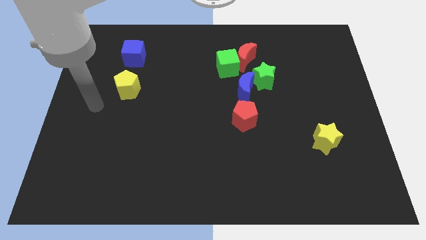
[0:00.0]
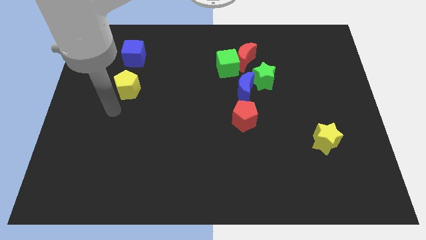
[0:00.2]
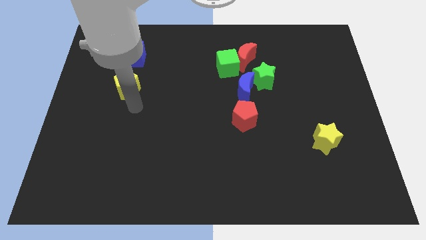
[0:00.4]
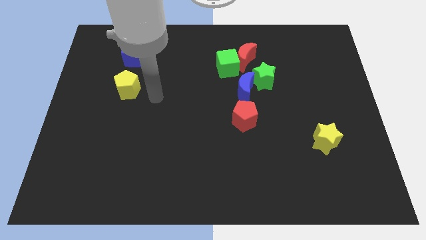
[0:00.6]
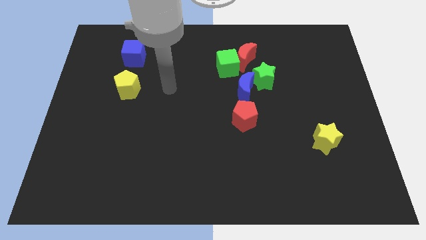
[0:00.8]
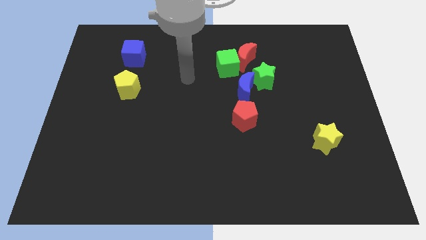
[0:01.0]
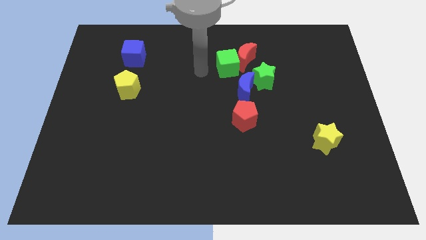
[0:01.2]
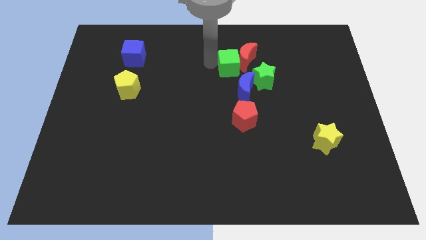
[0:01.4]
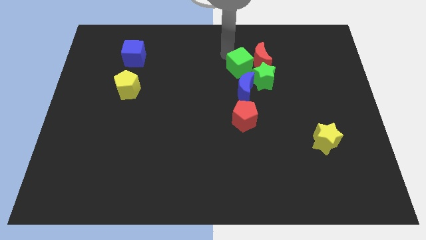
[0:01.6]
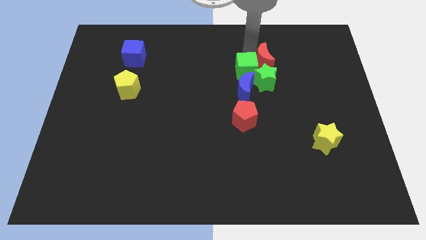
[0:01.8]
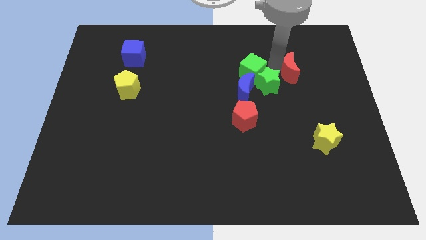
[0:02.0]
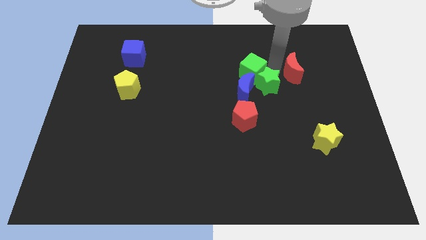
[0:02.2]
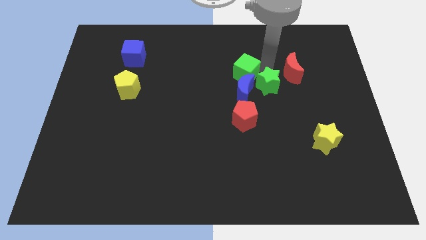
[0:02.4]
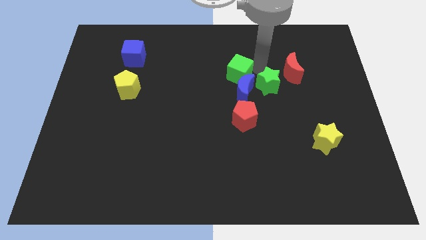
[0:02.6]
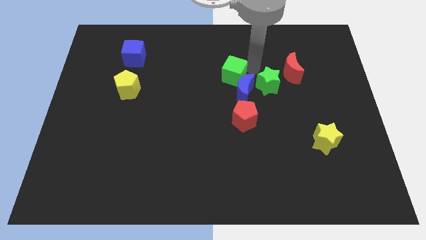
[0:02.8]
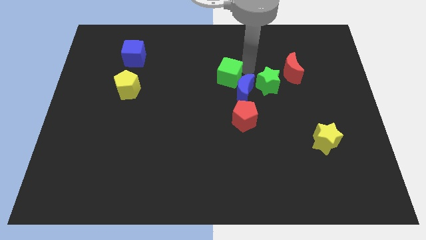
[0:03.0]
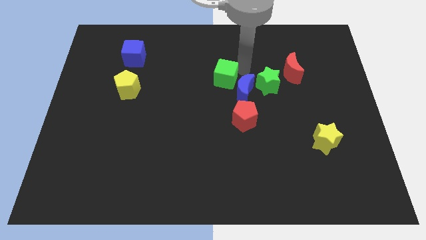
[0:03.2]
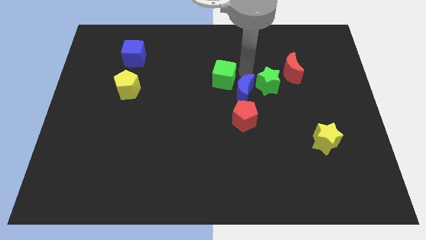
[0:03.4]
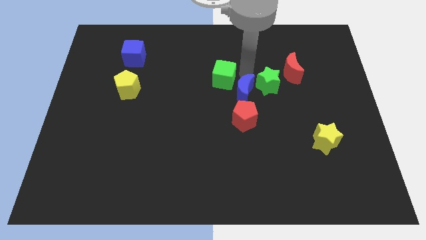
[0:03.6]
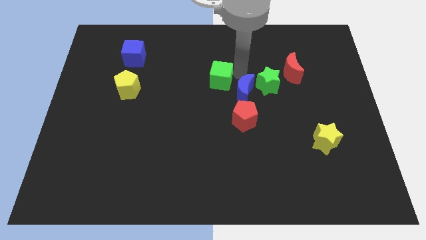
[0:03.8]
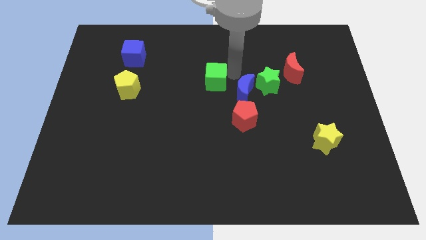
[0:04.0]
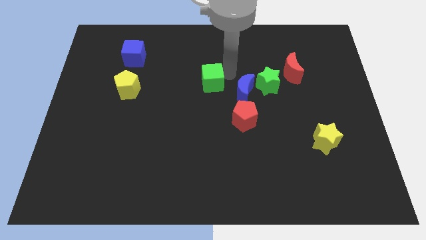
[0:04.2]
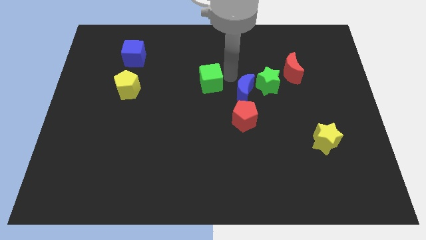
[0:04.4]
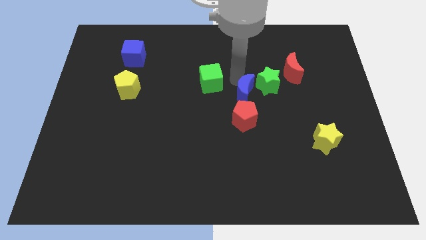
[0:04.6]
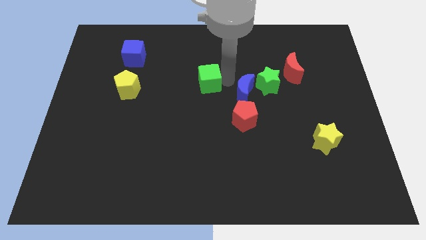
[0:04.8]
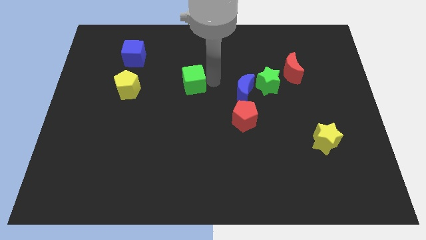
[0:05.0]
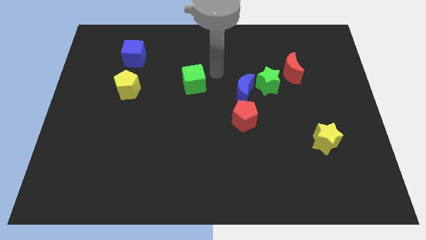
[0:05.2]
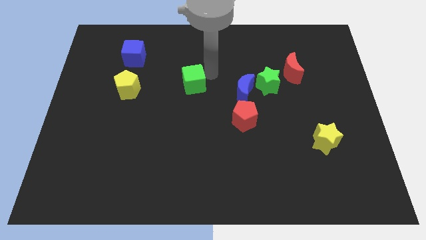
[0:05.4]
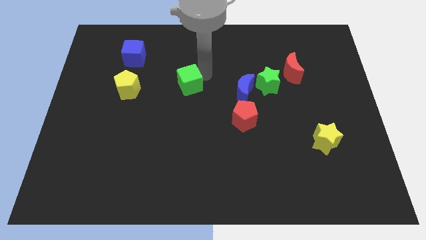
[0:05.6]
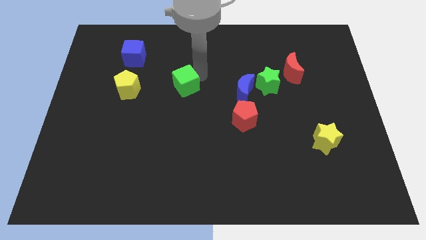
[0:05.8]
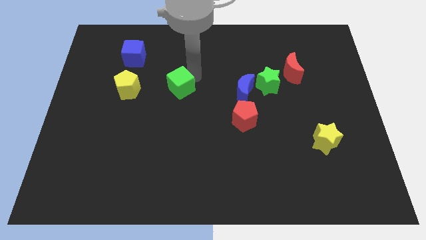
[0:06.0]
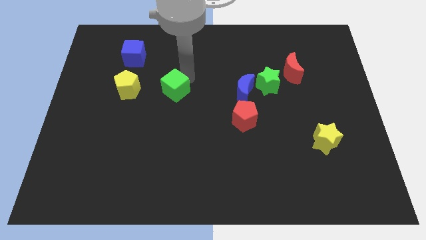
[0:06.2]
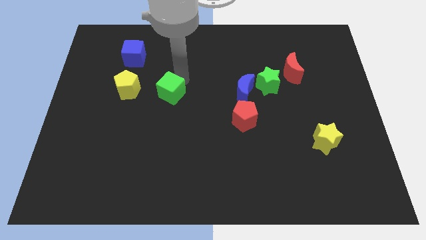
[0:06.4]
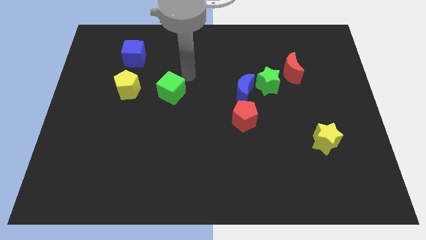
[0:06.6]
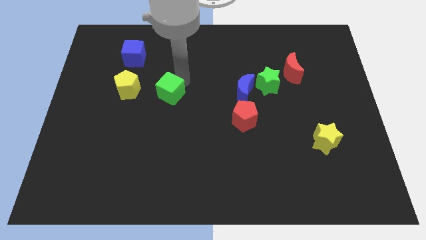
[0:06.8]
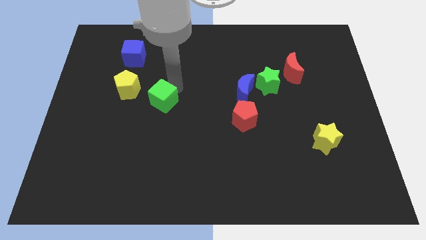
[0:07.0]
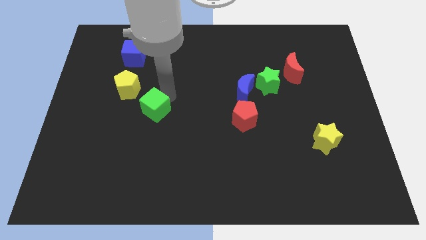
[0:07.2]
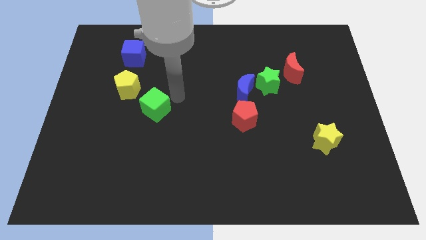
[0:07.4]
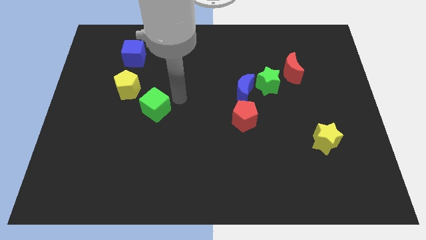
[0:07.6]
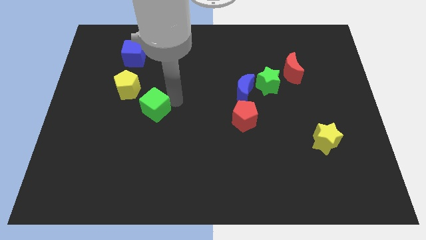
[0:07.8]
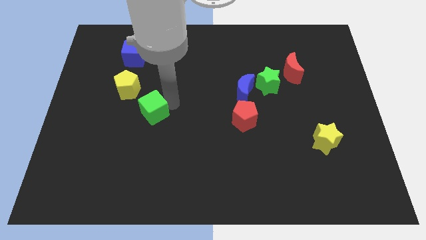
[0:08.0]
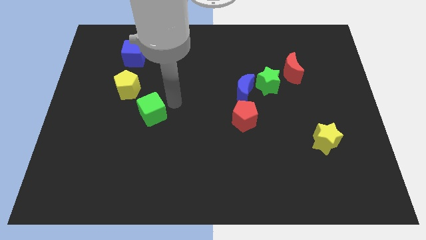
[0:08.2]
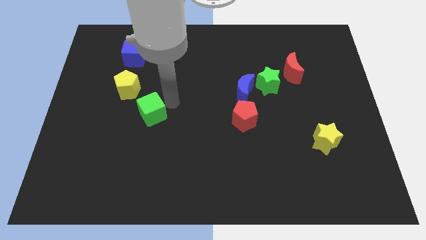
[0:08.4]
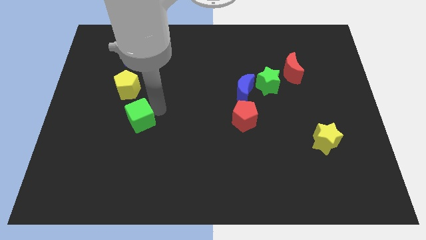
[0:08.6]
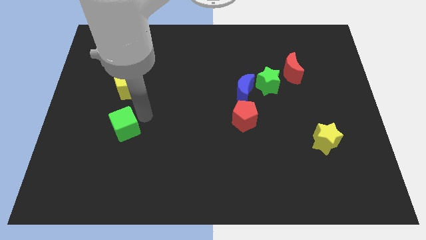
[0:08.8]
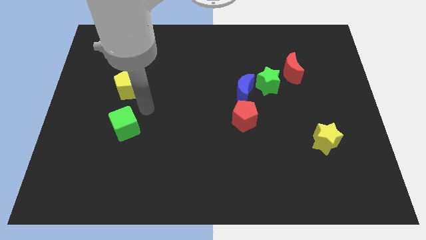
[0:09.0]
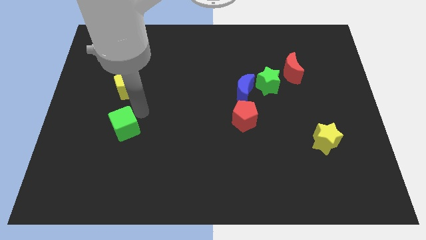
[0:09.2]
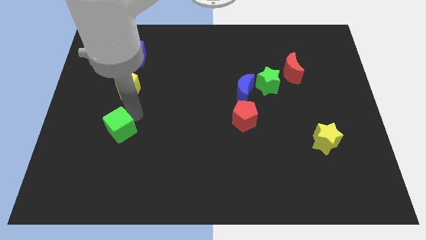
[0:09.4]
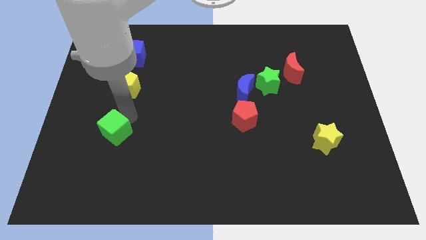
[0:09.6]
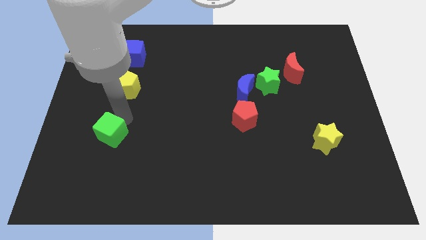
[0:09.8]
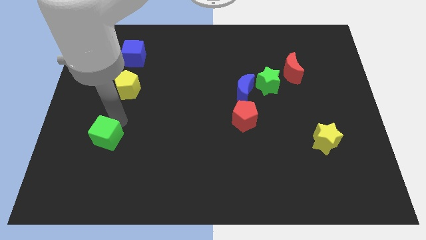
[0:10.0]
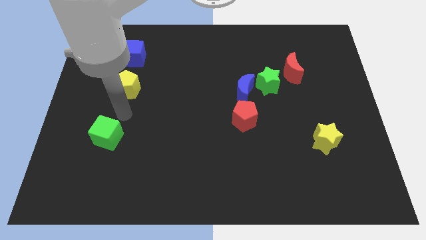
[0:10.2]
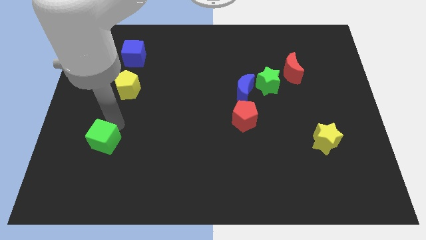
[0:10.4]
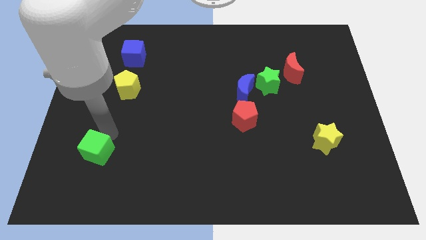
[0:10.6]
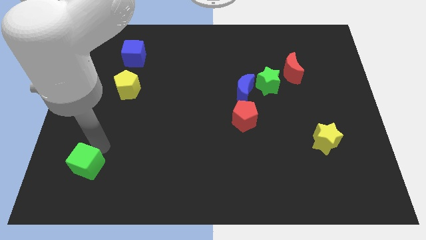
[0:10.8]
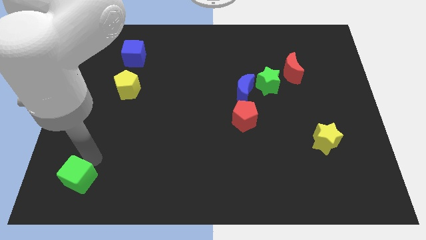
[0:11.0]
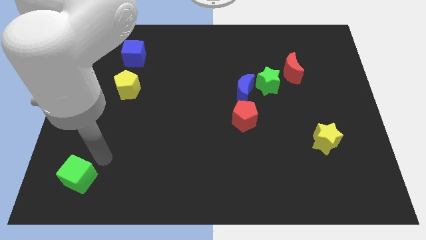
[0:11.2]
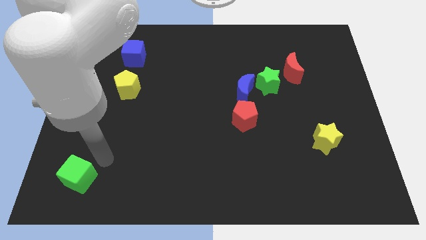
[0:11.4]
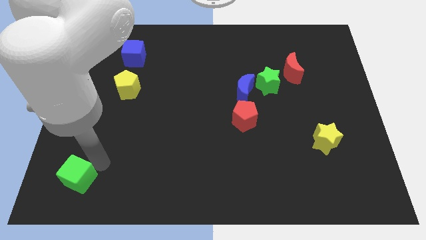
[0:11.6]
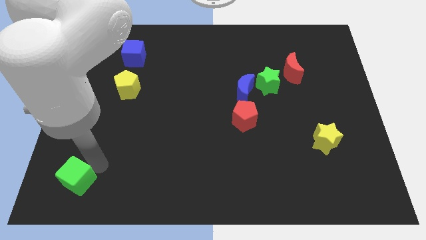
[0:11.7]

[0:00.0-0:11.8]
push the green cube to the bottom left corner
